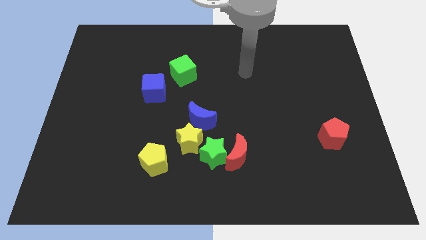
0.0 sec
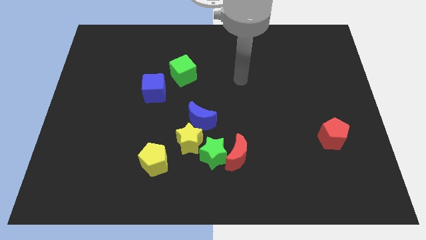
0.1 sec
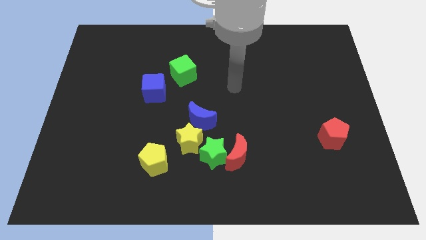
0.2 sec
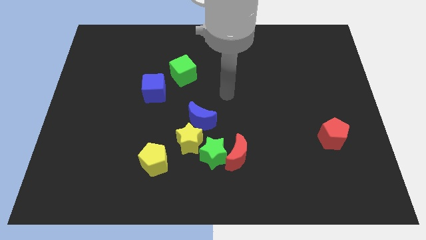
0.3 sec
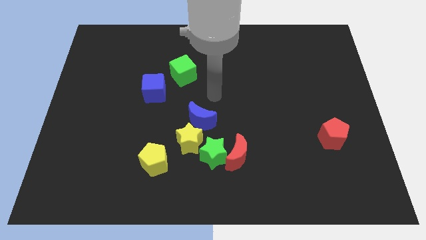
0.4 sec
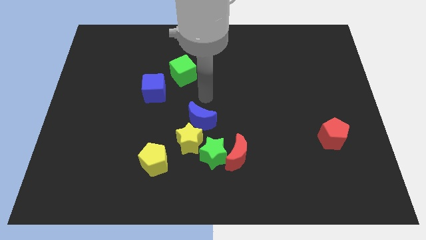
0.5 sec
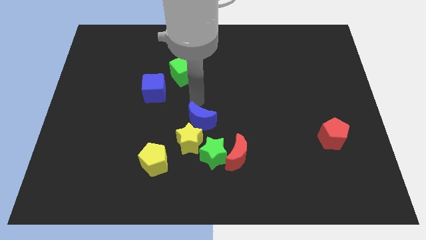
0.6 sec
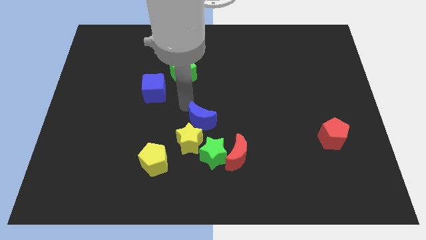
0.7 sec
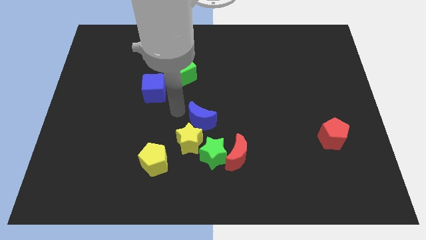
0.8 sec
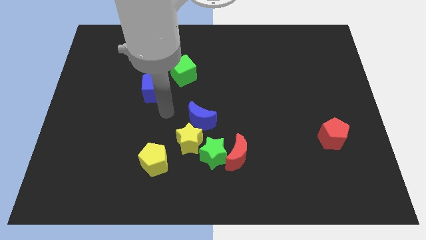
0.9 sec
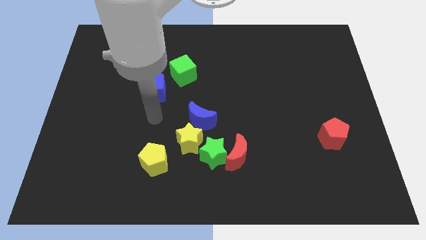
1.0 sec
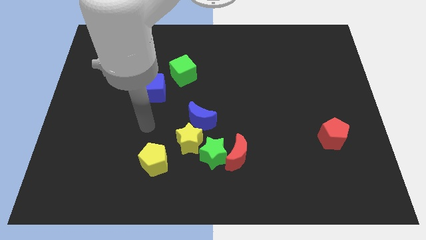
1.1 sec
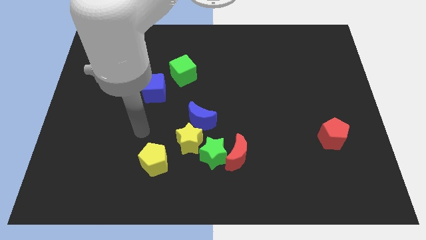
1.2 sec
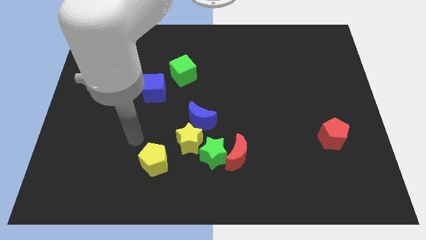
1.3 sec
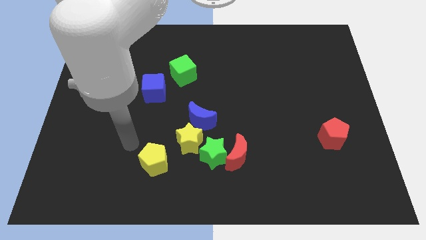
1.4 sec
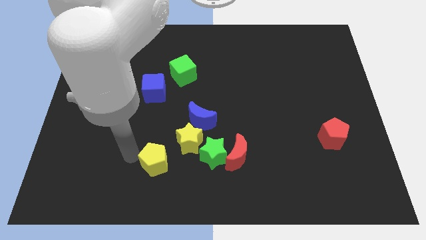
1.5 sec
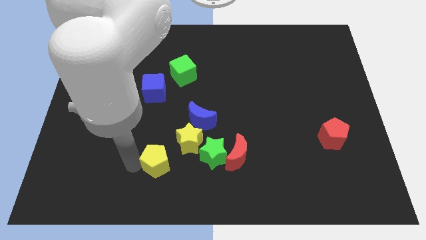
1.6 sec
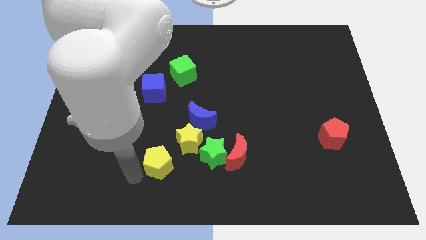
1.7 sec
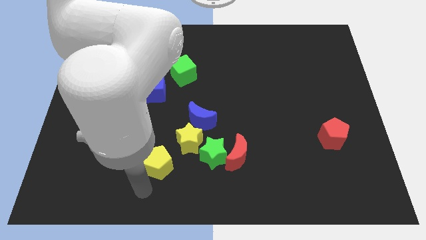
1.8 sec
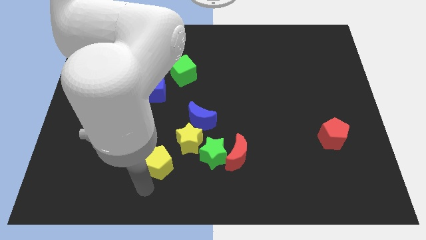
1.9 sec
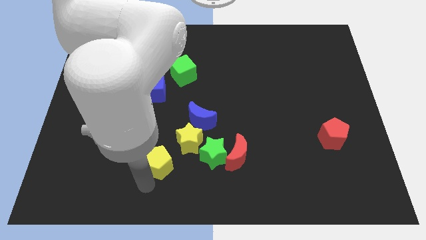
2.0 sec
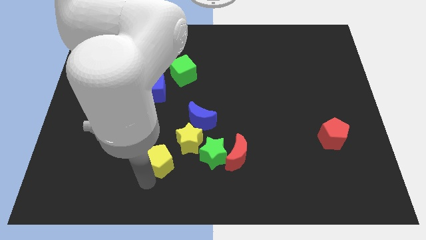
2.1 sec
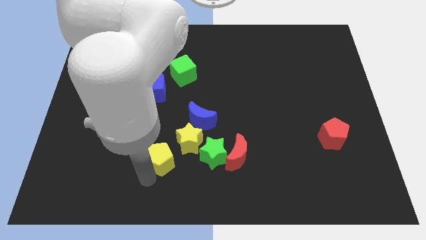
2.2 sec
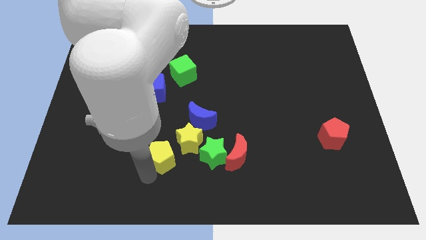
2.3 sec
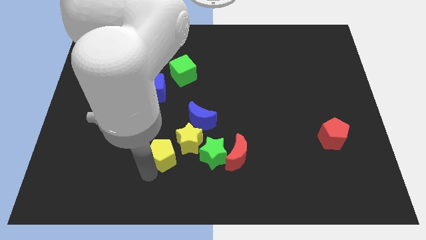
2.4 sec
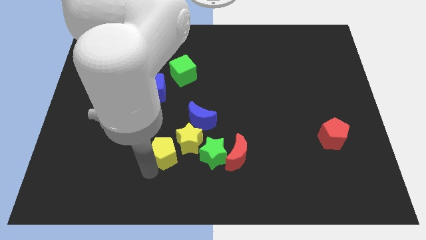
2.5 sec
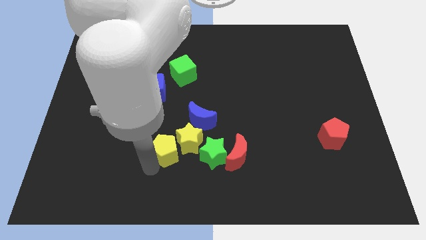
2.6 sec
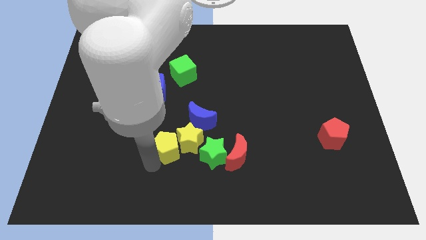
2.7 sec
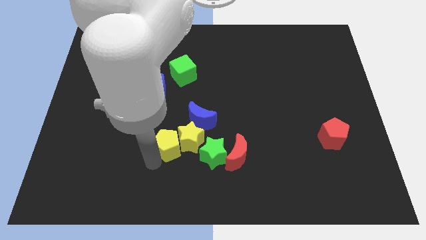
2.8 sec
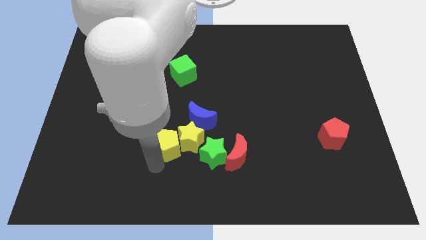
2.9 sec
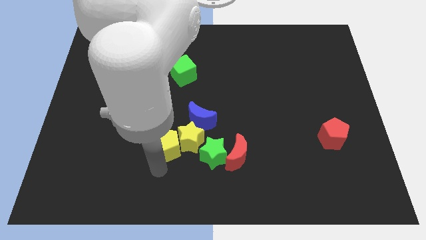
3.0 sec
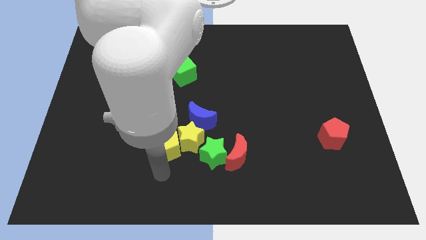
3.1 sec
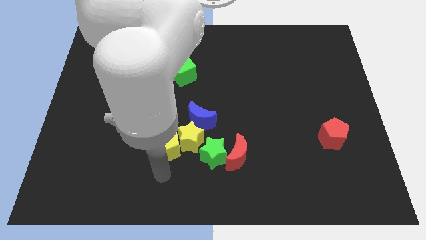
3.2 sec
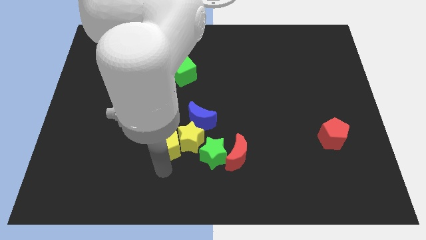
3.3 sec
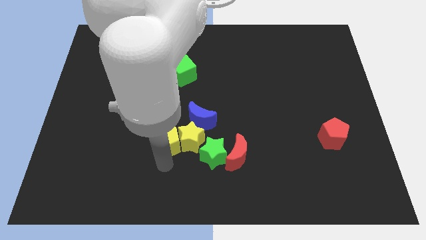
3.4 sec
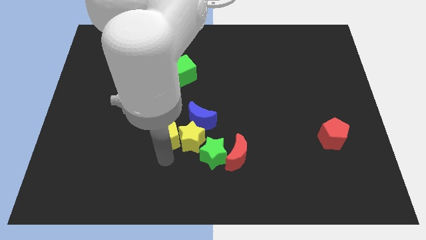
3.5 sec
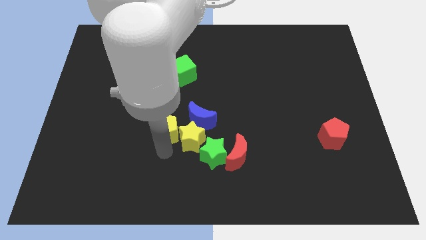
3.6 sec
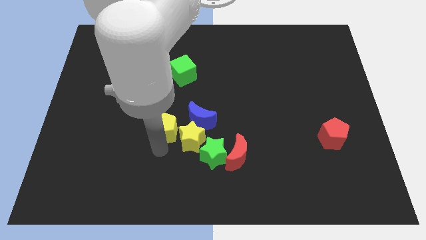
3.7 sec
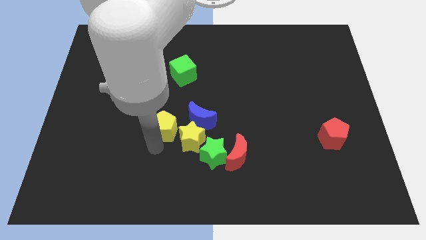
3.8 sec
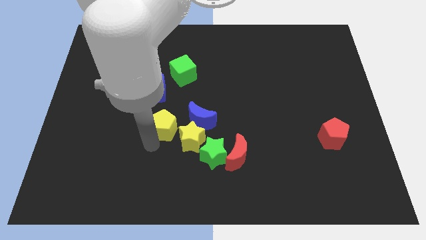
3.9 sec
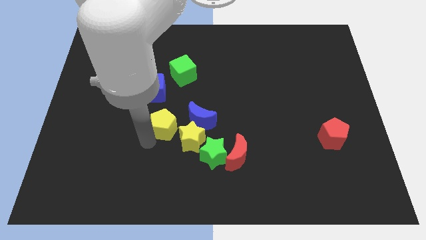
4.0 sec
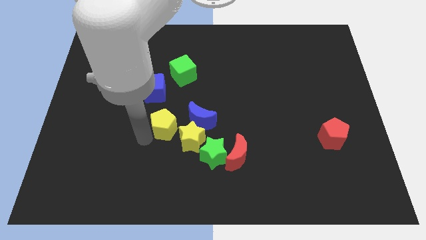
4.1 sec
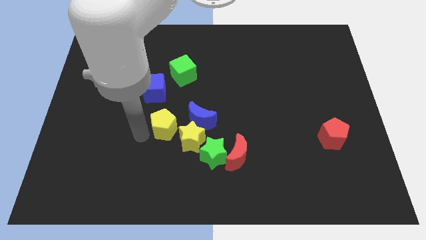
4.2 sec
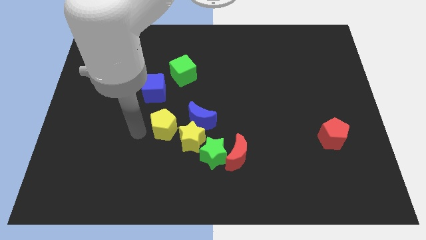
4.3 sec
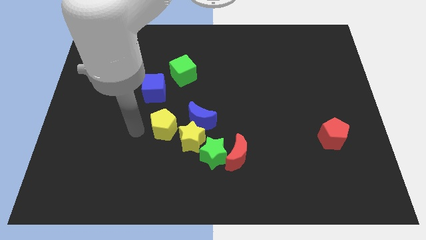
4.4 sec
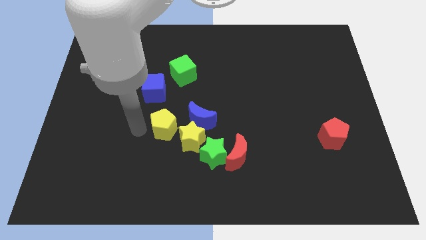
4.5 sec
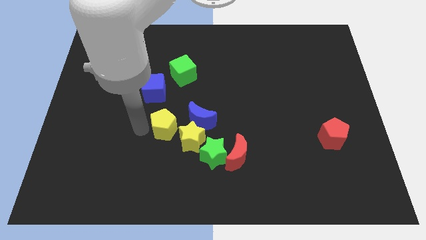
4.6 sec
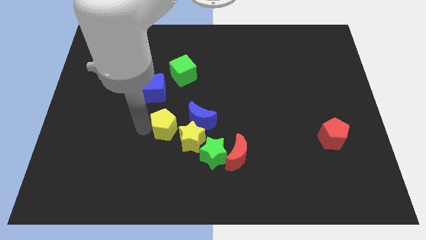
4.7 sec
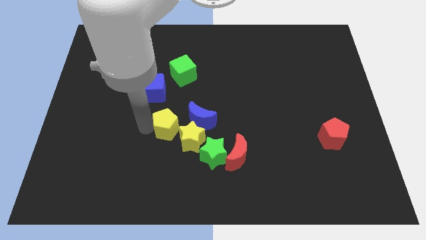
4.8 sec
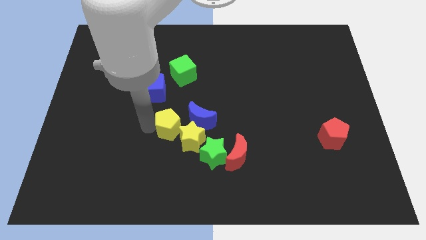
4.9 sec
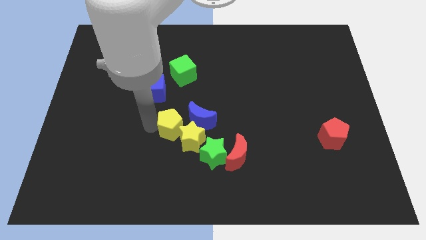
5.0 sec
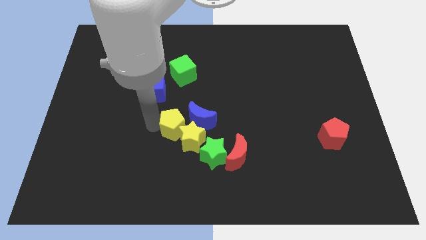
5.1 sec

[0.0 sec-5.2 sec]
move the yellow pentagon next to the blue moon

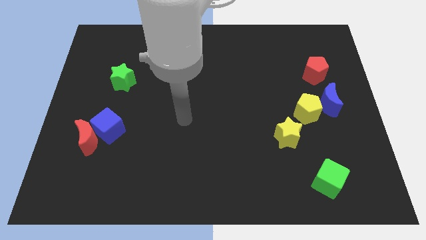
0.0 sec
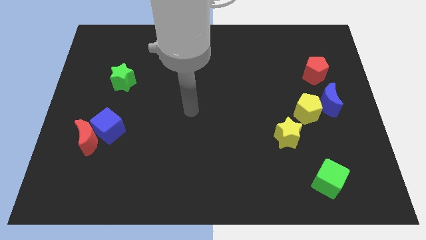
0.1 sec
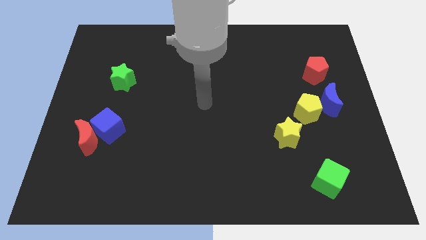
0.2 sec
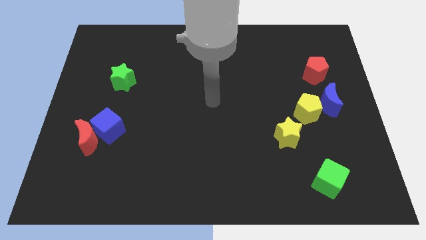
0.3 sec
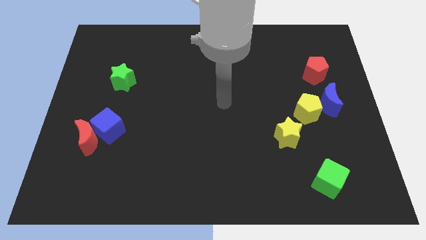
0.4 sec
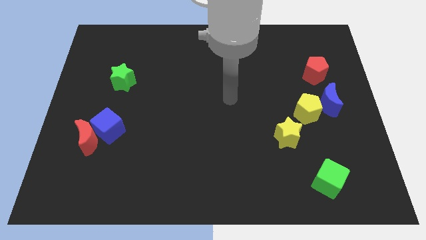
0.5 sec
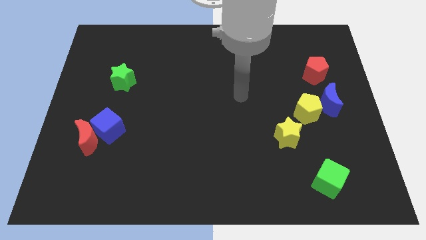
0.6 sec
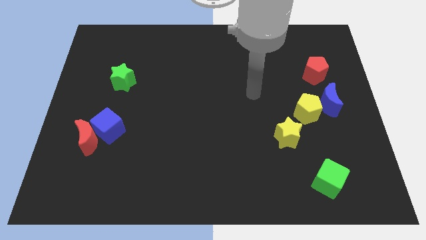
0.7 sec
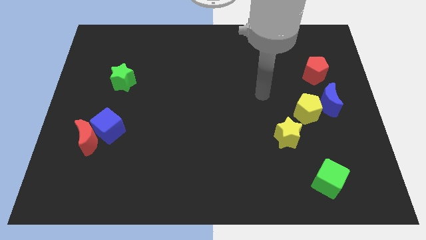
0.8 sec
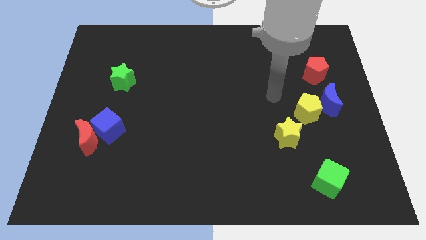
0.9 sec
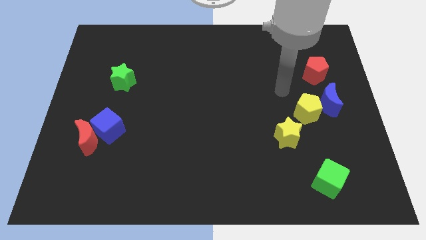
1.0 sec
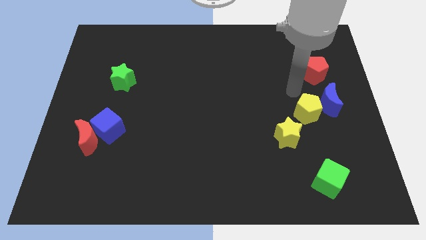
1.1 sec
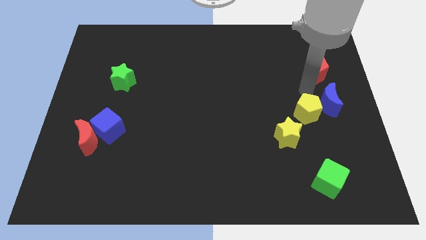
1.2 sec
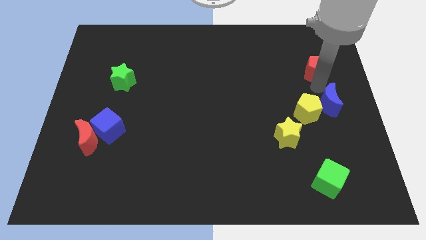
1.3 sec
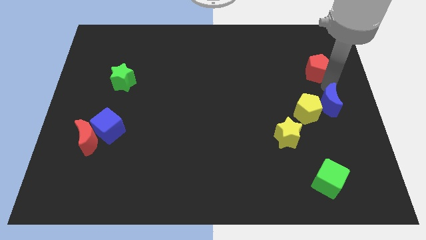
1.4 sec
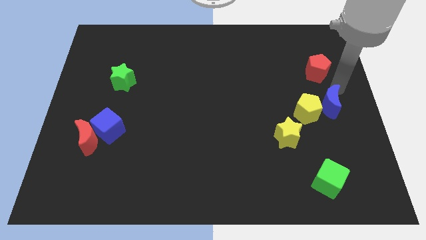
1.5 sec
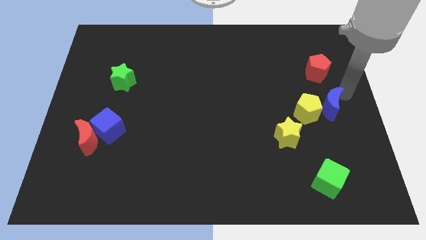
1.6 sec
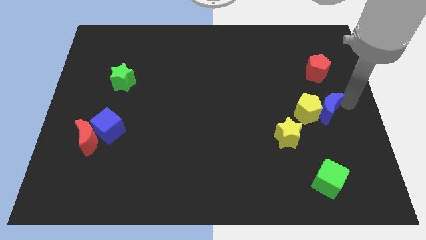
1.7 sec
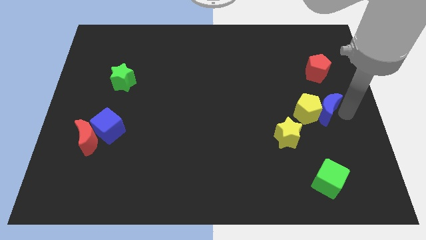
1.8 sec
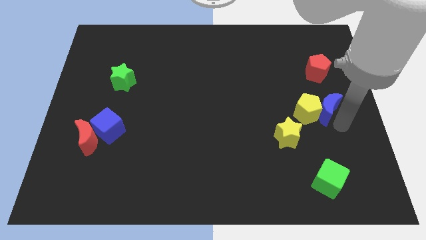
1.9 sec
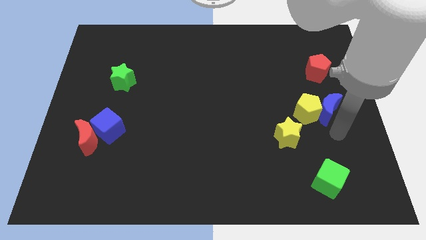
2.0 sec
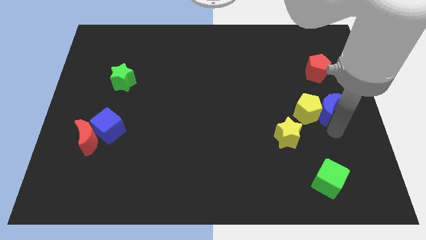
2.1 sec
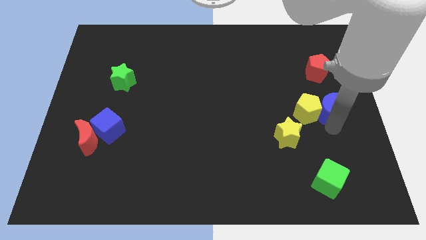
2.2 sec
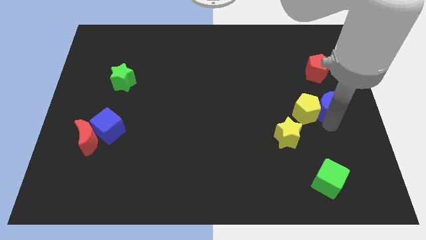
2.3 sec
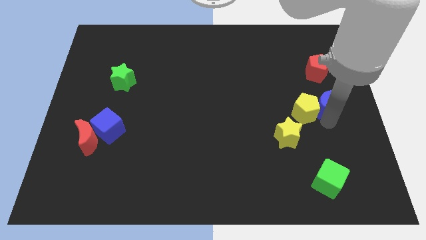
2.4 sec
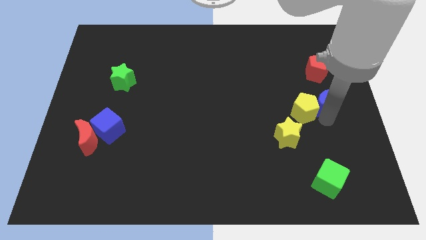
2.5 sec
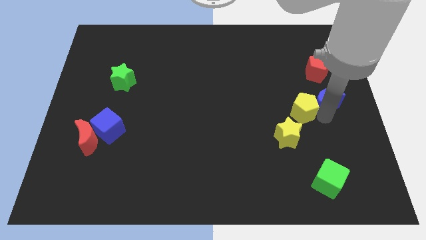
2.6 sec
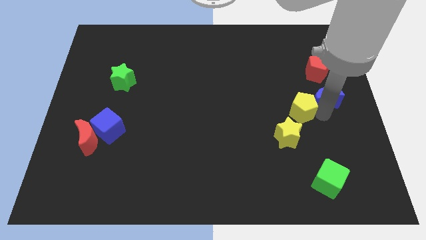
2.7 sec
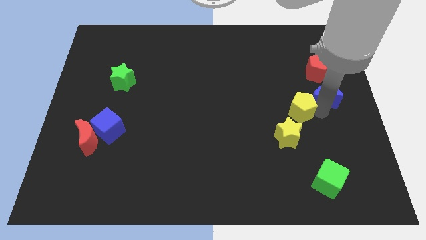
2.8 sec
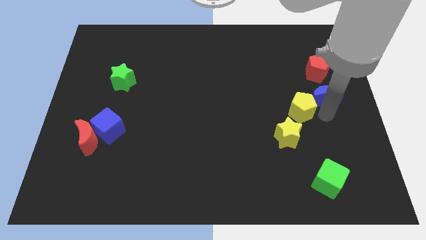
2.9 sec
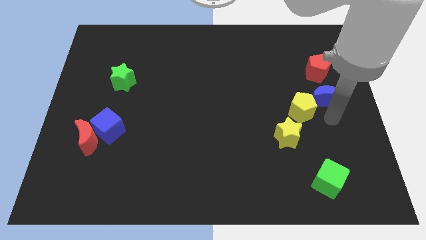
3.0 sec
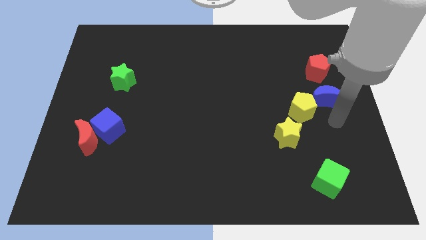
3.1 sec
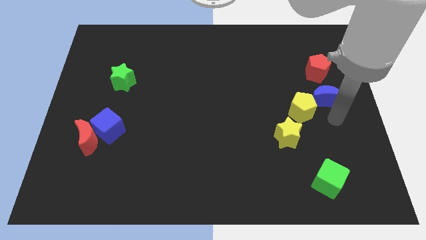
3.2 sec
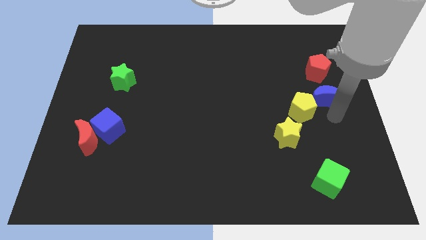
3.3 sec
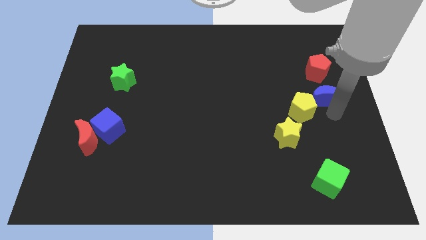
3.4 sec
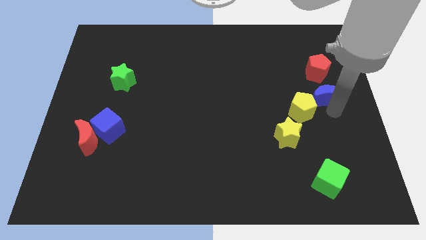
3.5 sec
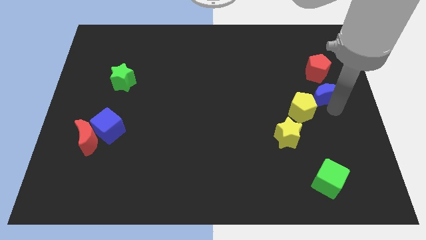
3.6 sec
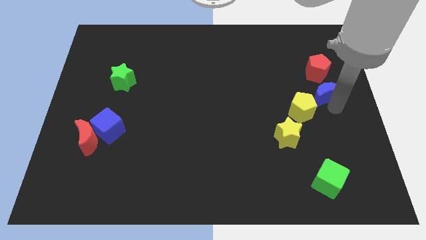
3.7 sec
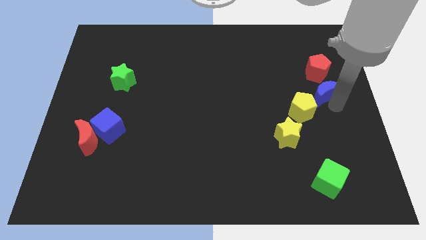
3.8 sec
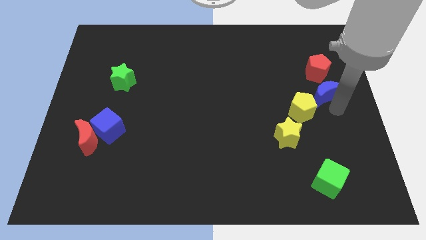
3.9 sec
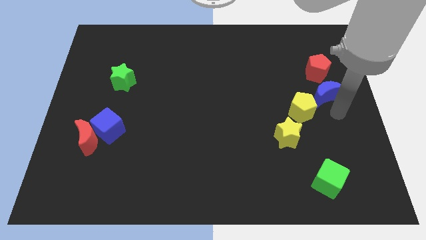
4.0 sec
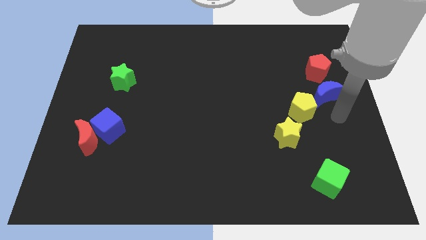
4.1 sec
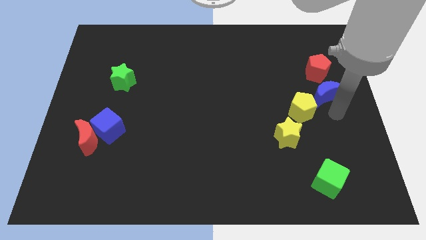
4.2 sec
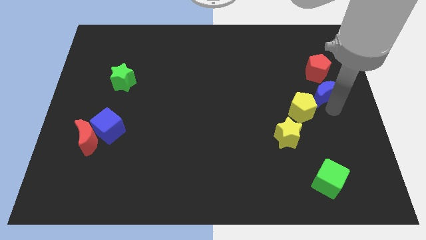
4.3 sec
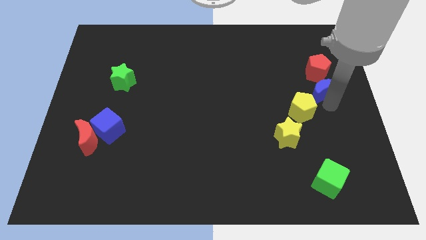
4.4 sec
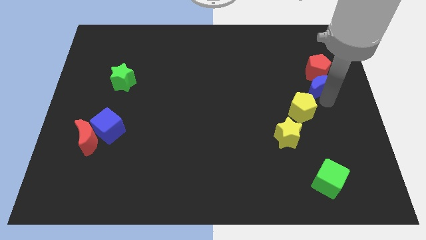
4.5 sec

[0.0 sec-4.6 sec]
push the blue moon towards the red pentagon
